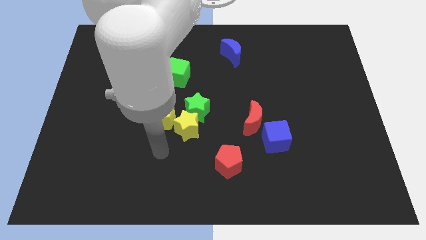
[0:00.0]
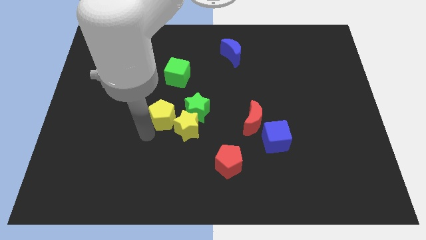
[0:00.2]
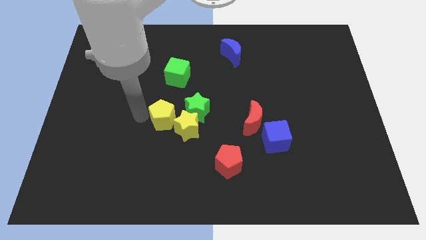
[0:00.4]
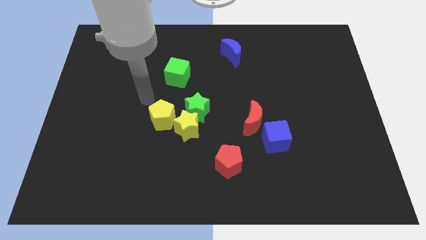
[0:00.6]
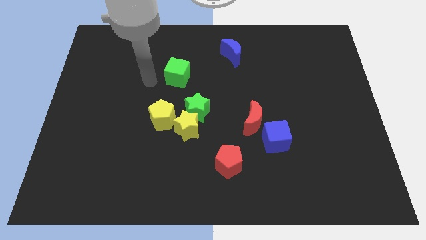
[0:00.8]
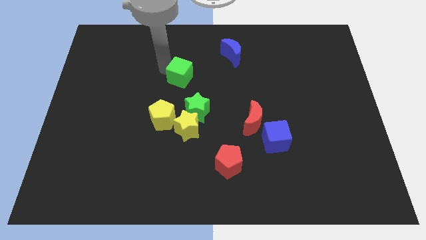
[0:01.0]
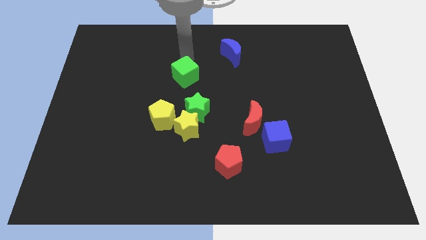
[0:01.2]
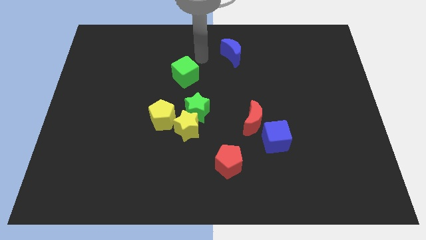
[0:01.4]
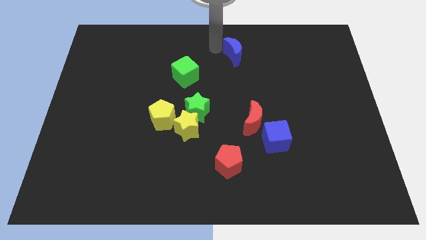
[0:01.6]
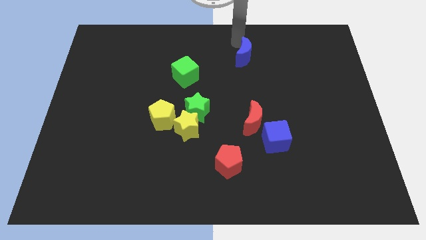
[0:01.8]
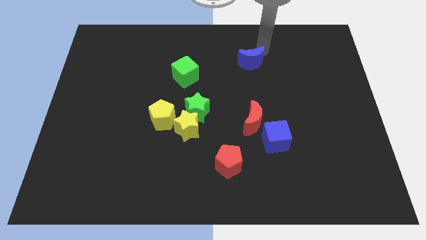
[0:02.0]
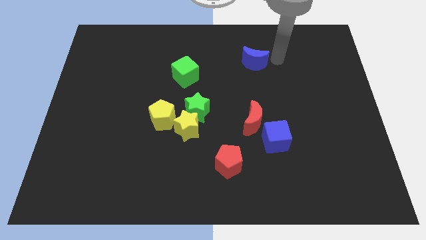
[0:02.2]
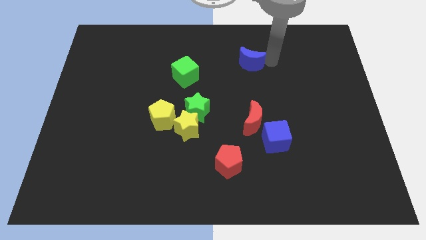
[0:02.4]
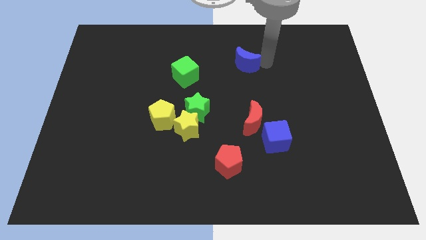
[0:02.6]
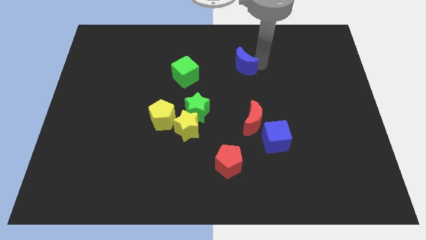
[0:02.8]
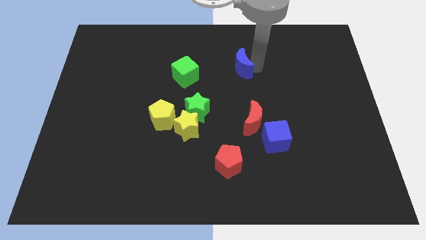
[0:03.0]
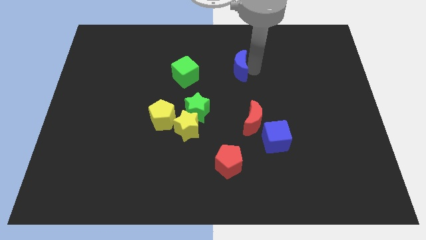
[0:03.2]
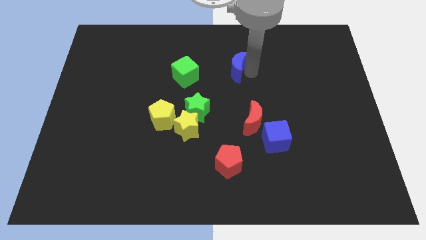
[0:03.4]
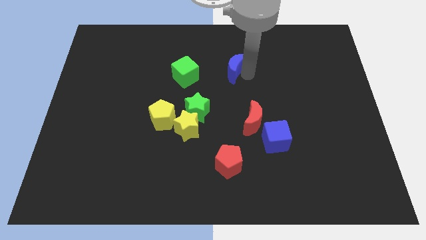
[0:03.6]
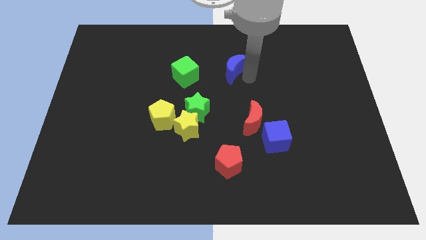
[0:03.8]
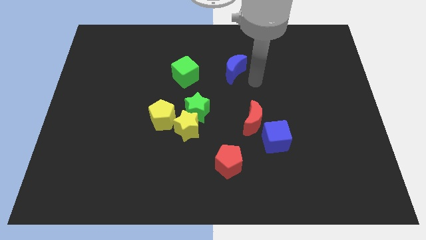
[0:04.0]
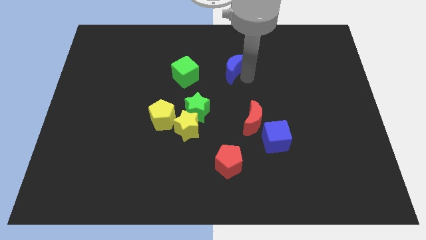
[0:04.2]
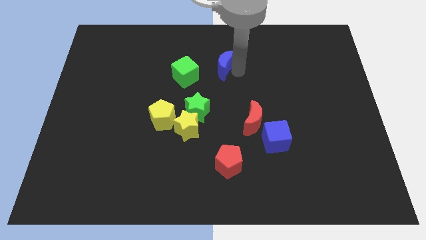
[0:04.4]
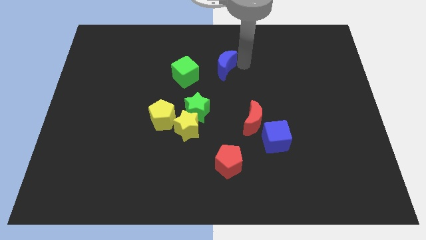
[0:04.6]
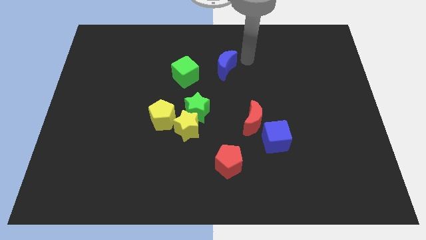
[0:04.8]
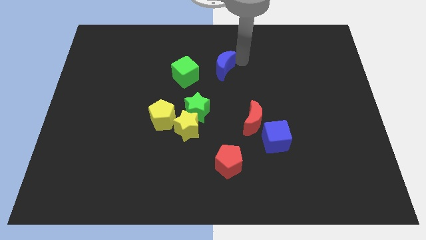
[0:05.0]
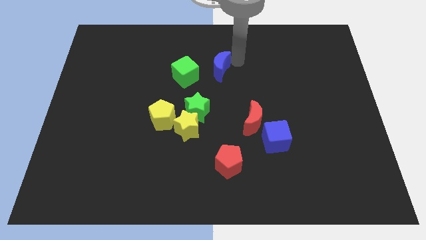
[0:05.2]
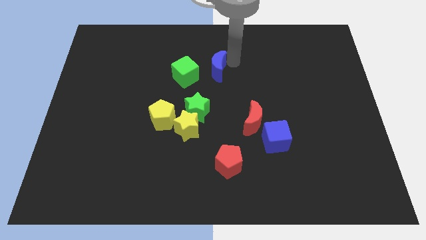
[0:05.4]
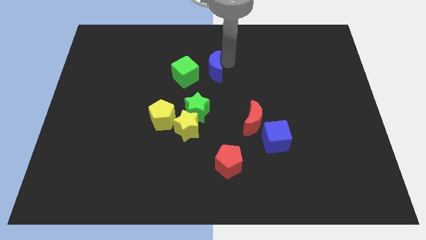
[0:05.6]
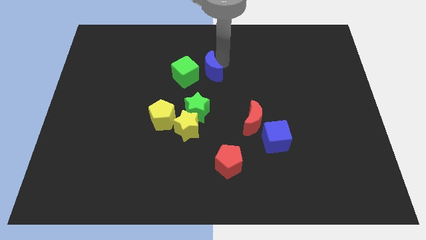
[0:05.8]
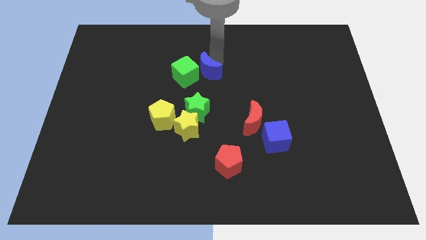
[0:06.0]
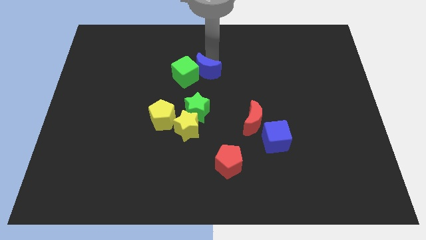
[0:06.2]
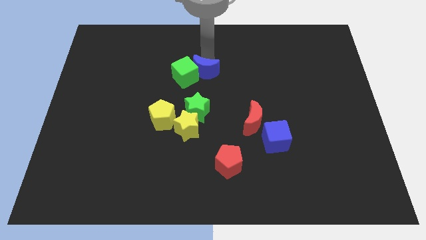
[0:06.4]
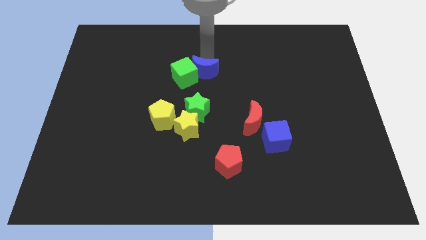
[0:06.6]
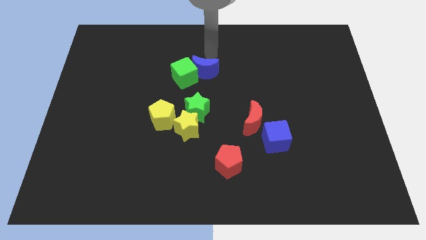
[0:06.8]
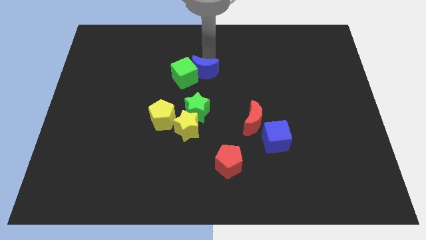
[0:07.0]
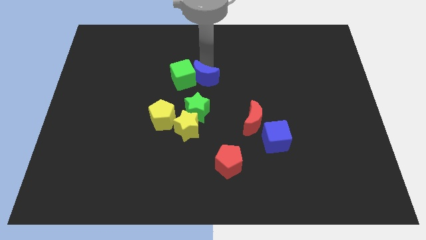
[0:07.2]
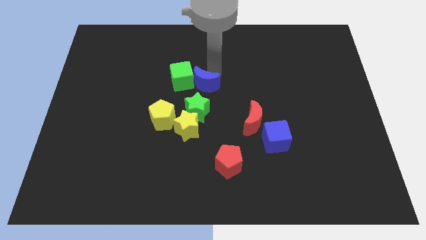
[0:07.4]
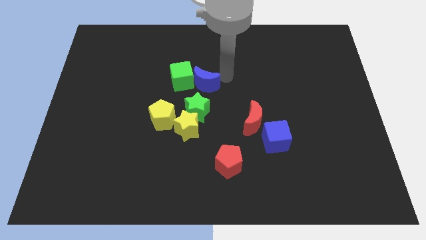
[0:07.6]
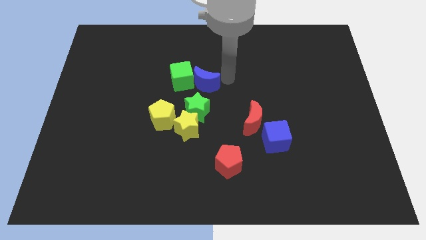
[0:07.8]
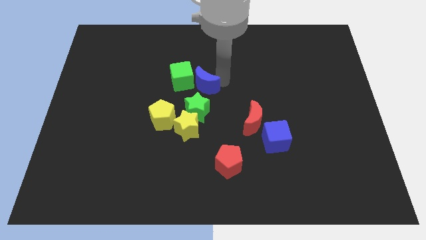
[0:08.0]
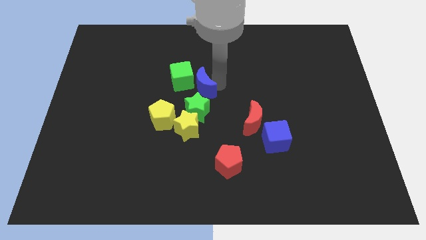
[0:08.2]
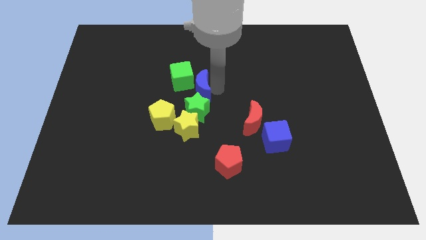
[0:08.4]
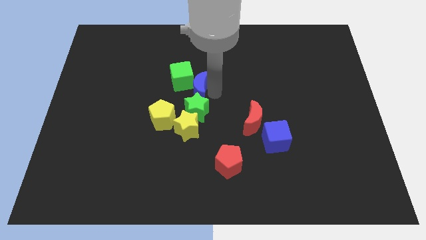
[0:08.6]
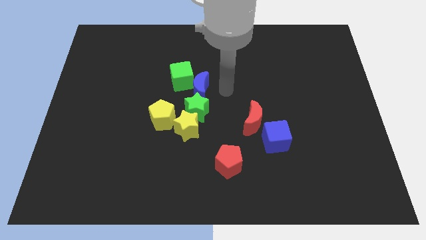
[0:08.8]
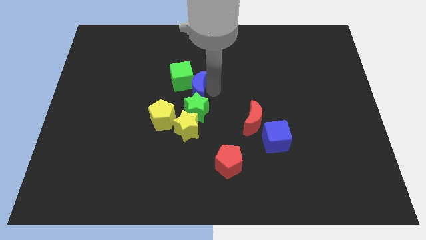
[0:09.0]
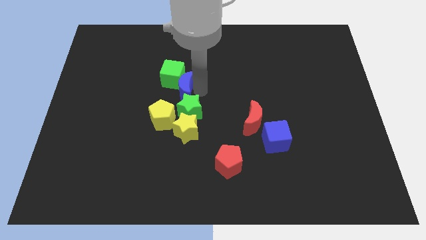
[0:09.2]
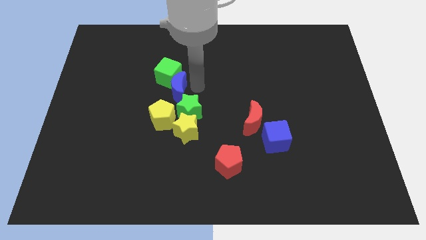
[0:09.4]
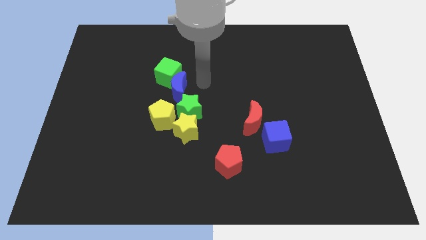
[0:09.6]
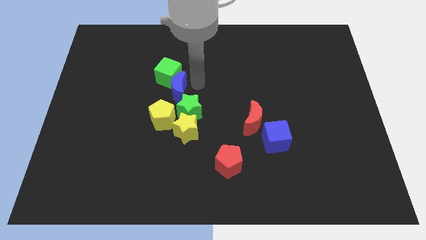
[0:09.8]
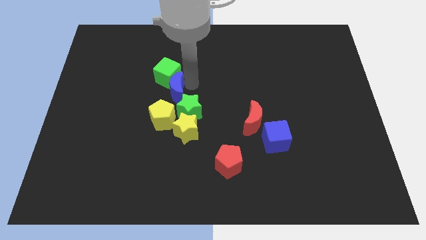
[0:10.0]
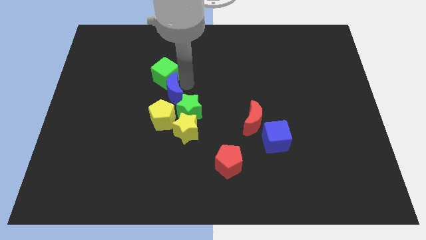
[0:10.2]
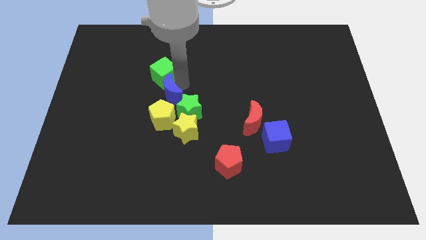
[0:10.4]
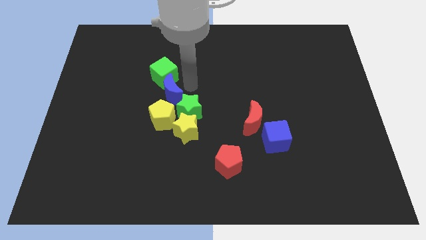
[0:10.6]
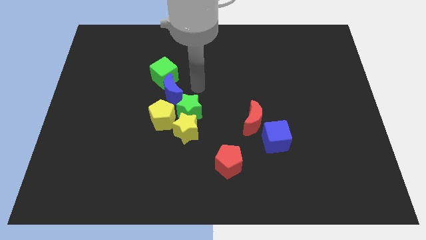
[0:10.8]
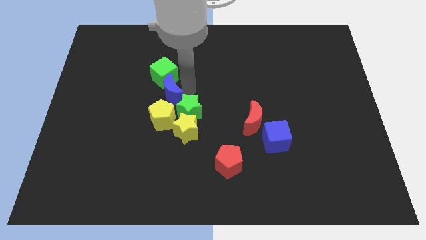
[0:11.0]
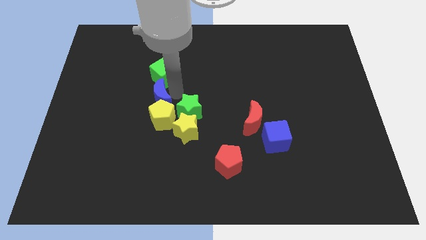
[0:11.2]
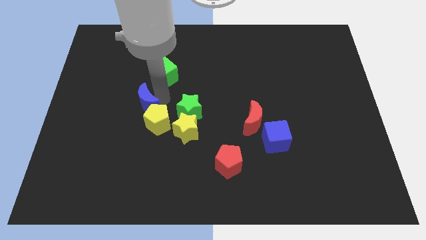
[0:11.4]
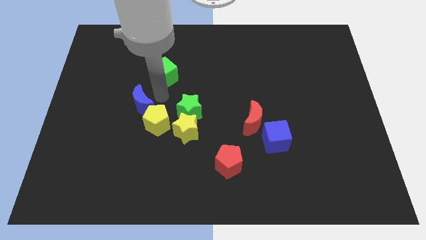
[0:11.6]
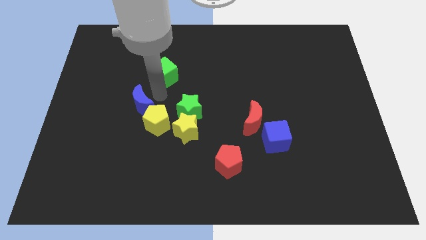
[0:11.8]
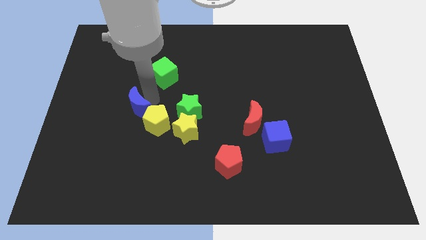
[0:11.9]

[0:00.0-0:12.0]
put the blue moon left of the yellow pentagon
